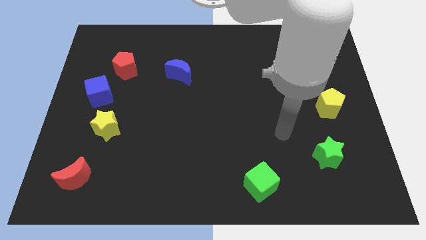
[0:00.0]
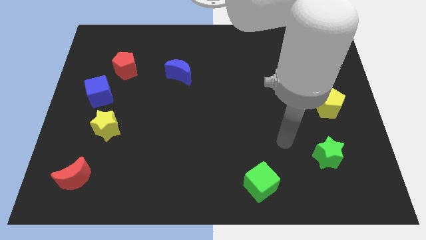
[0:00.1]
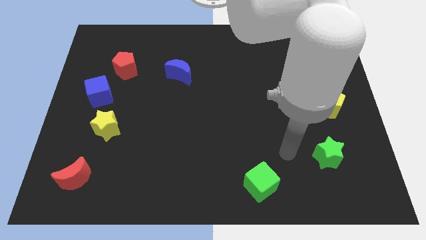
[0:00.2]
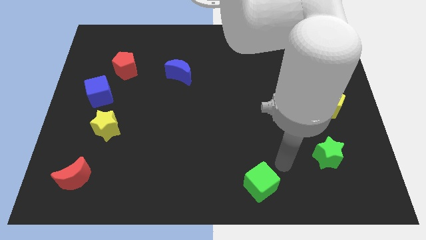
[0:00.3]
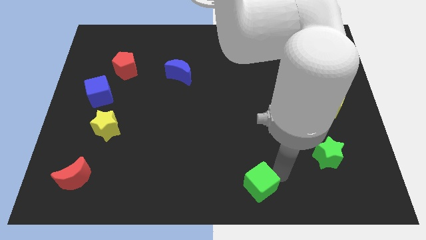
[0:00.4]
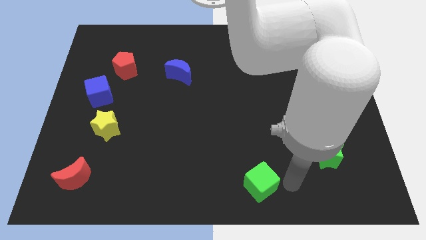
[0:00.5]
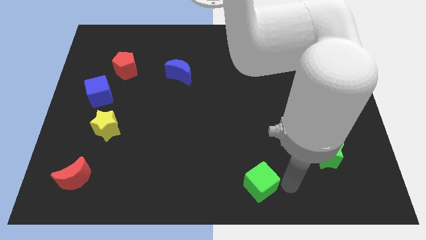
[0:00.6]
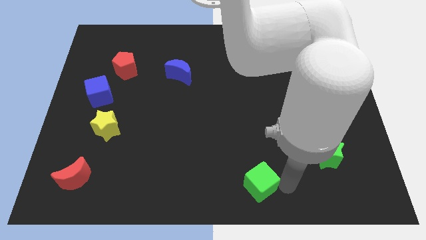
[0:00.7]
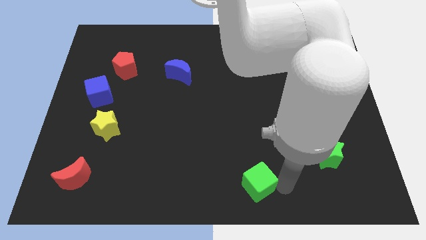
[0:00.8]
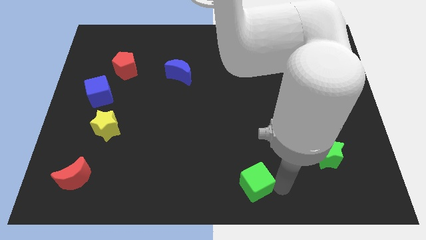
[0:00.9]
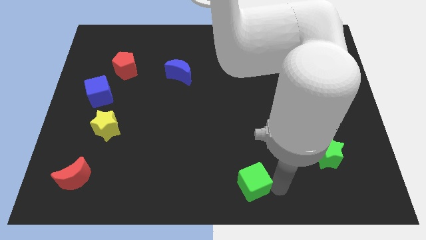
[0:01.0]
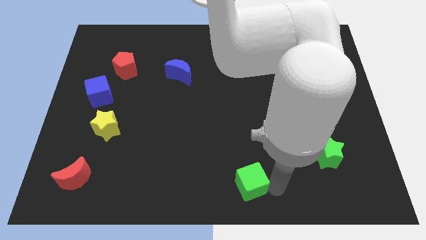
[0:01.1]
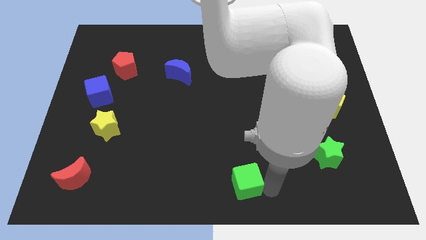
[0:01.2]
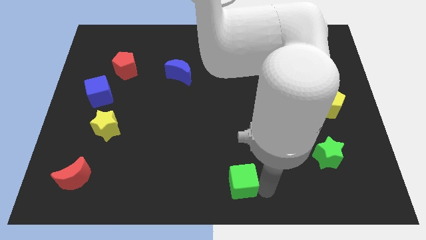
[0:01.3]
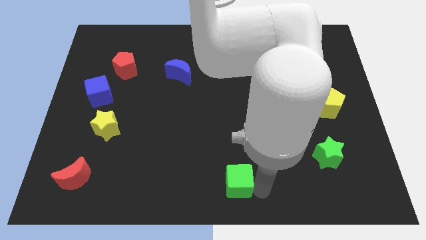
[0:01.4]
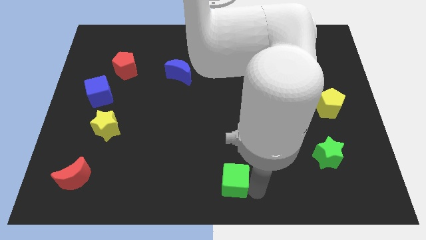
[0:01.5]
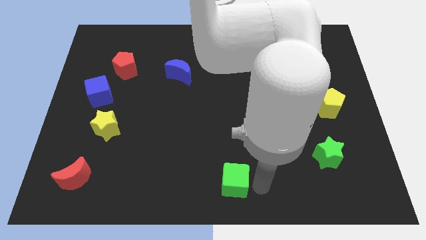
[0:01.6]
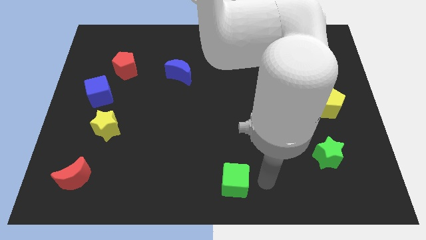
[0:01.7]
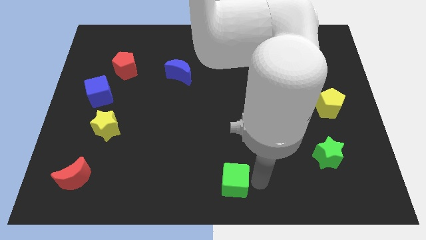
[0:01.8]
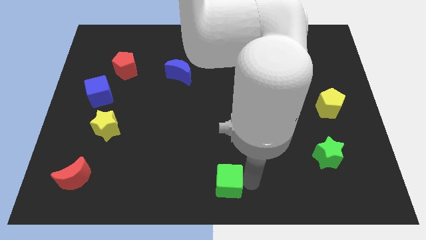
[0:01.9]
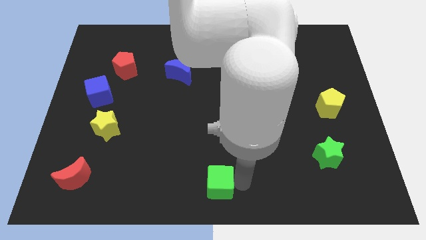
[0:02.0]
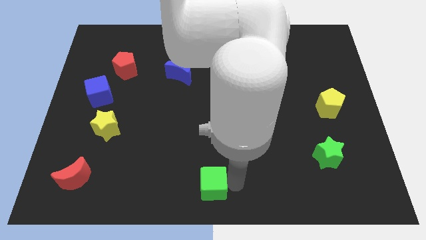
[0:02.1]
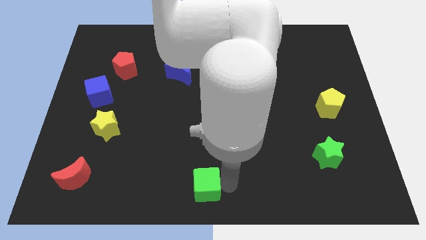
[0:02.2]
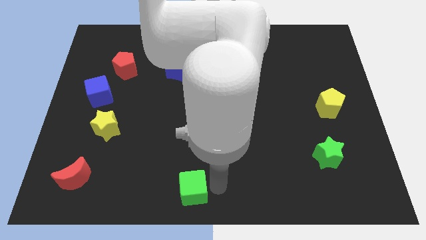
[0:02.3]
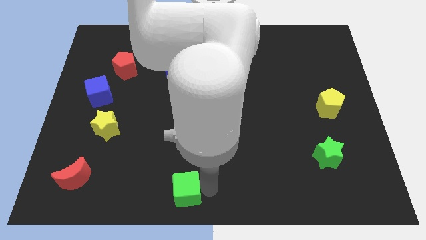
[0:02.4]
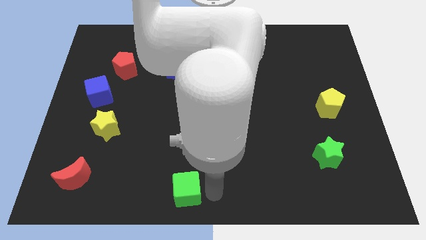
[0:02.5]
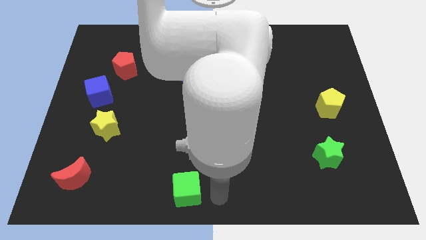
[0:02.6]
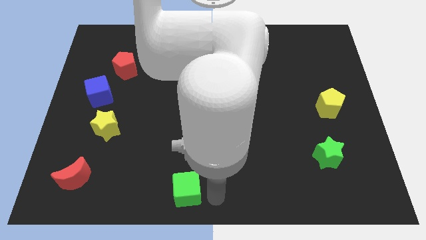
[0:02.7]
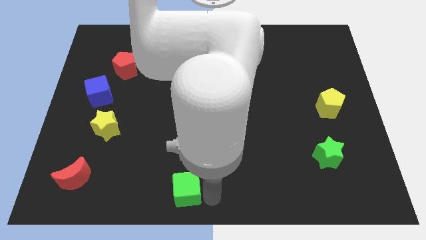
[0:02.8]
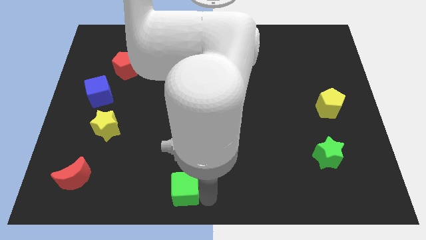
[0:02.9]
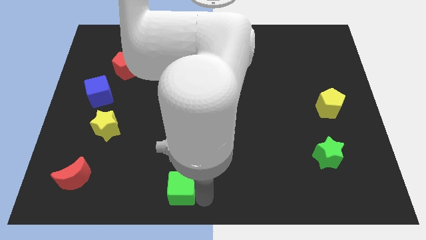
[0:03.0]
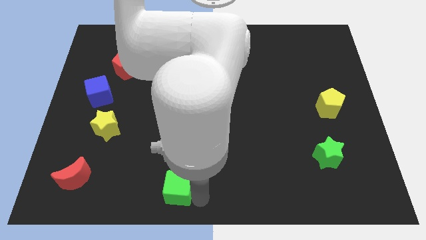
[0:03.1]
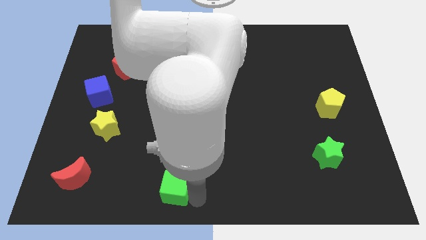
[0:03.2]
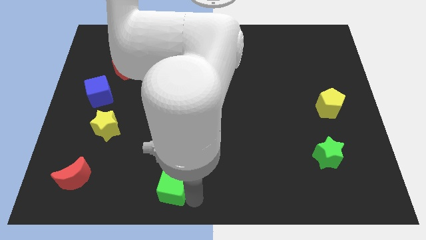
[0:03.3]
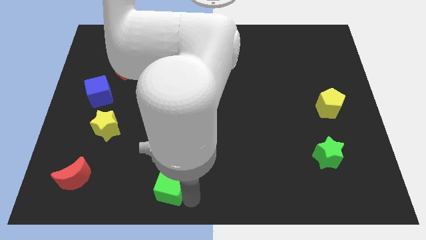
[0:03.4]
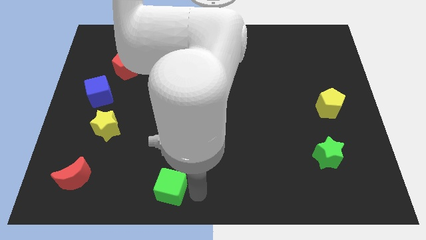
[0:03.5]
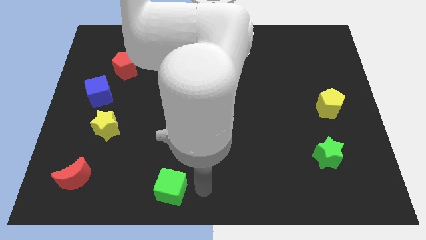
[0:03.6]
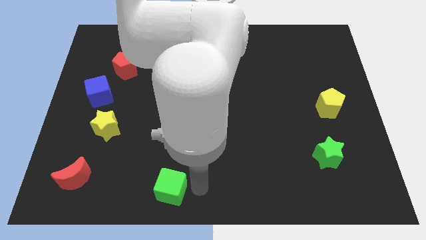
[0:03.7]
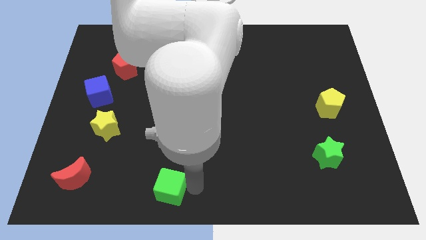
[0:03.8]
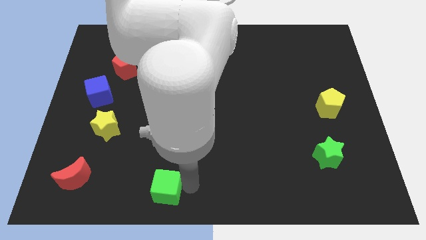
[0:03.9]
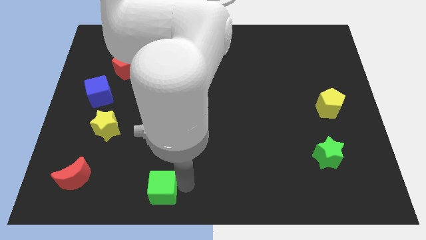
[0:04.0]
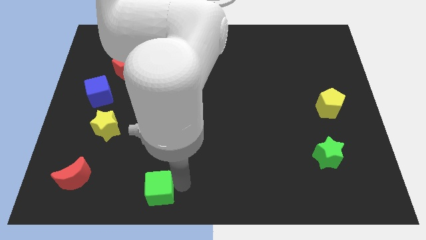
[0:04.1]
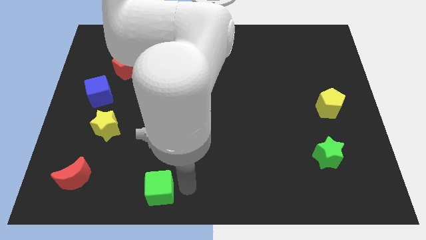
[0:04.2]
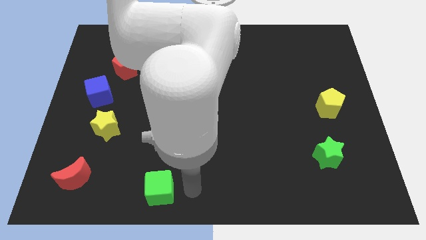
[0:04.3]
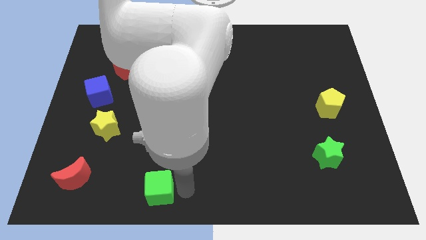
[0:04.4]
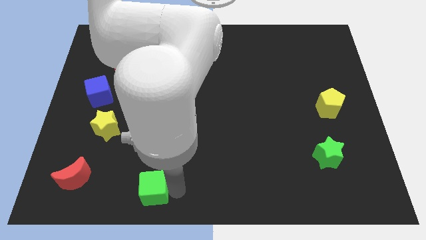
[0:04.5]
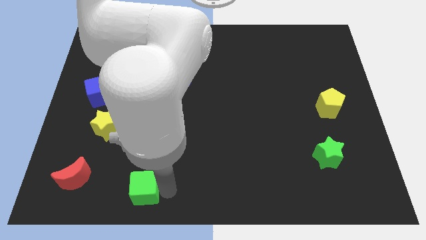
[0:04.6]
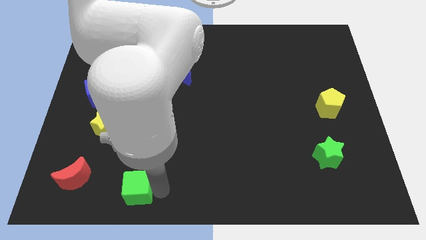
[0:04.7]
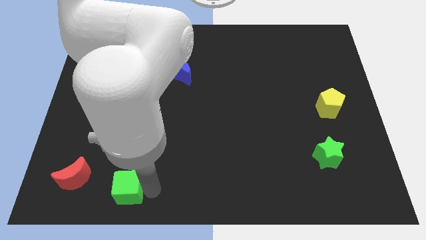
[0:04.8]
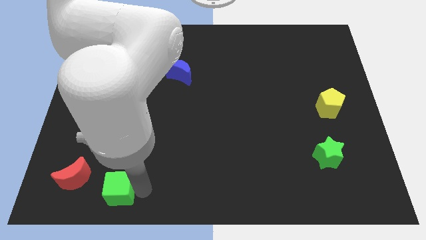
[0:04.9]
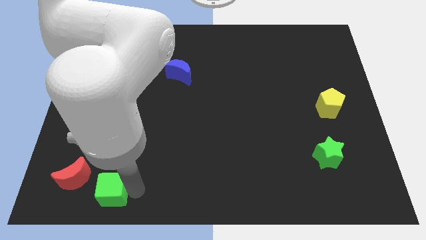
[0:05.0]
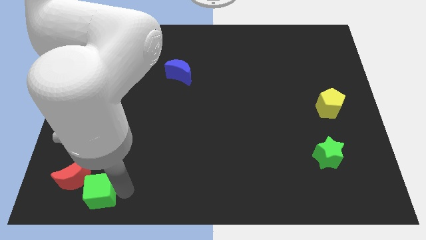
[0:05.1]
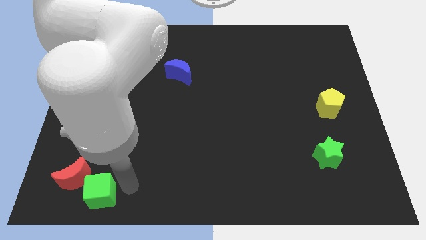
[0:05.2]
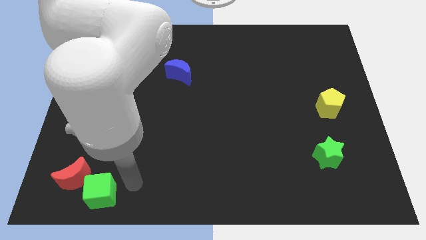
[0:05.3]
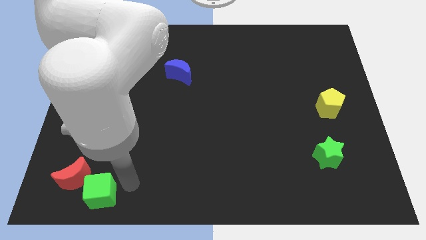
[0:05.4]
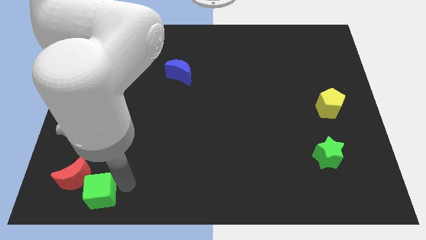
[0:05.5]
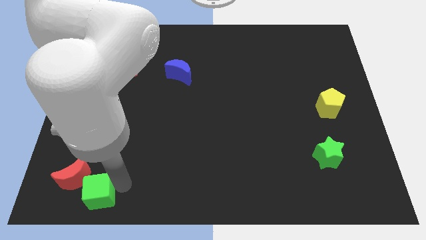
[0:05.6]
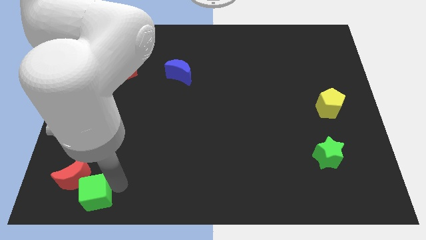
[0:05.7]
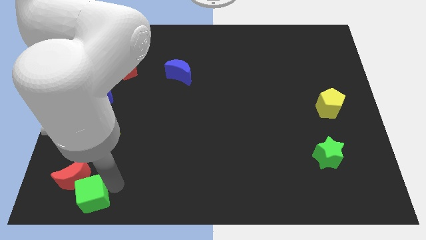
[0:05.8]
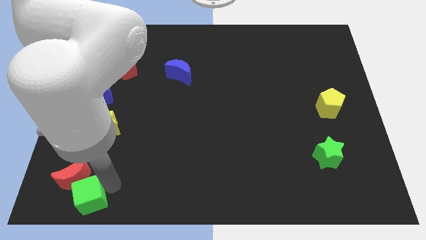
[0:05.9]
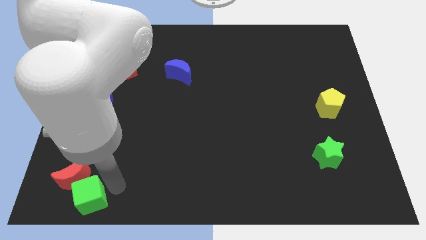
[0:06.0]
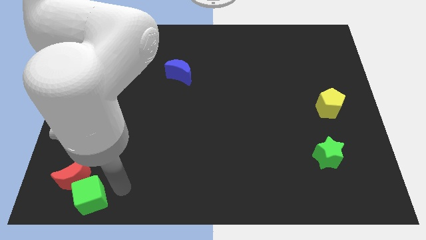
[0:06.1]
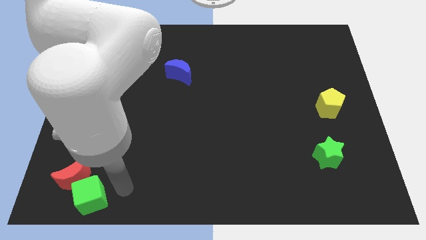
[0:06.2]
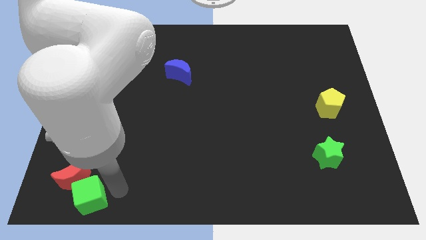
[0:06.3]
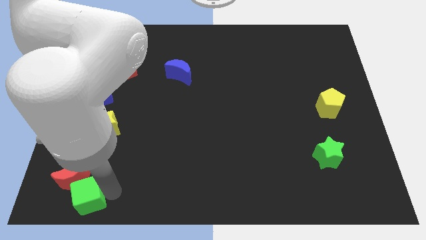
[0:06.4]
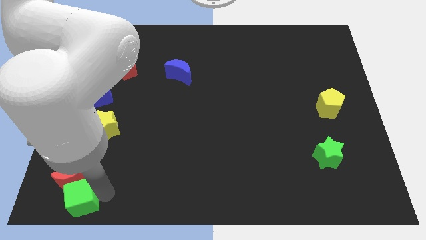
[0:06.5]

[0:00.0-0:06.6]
move the green cube to the bottom left corner
